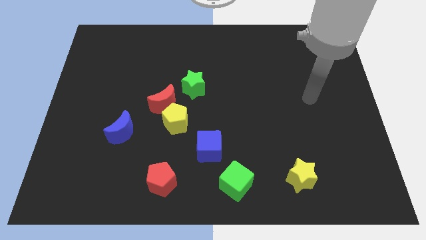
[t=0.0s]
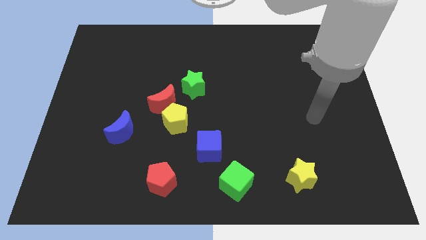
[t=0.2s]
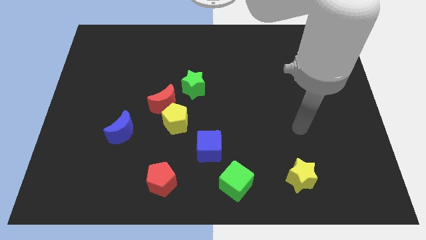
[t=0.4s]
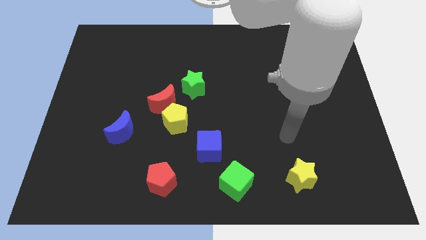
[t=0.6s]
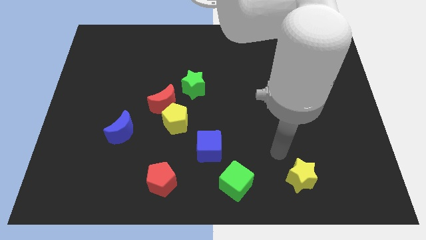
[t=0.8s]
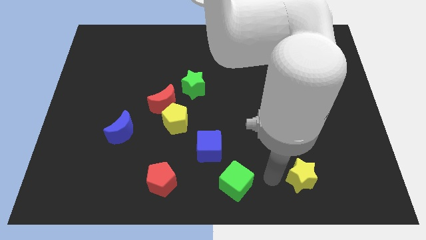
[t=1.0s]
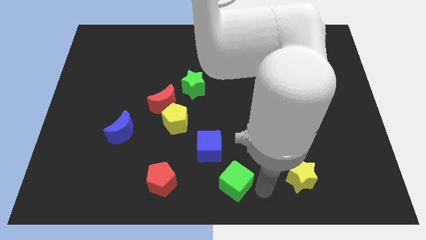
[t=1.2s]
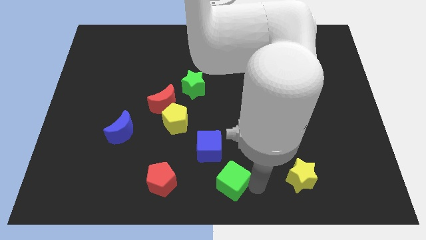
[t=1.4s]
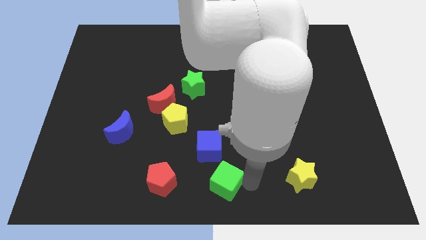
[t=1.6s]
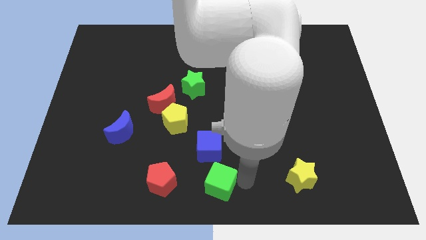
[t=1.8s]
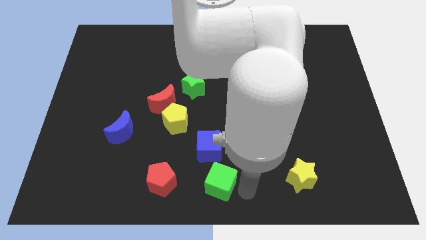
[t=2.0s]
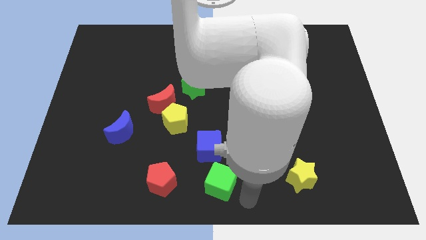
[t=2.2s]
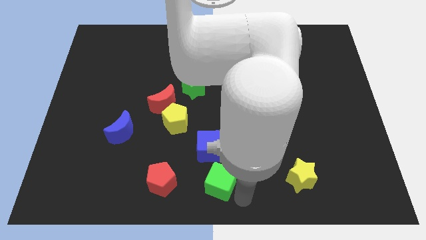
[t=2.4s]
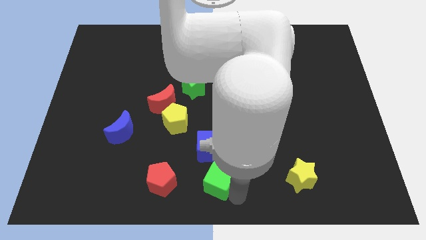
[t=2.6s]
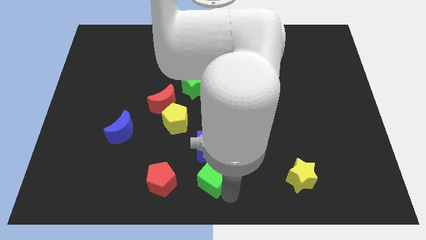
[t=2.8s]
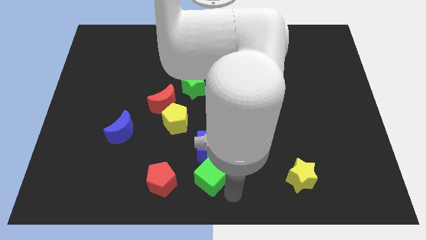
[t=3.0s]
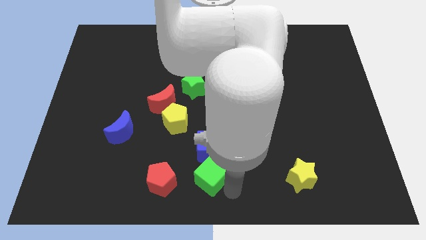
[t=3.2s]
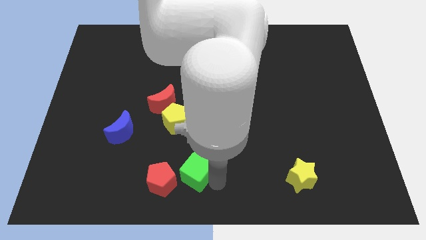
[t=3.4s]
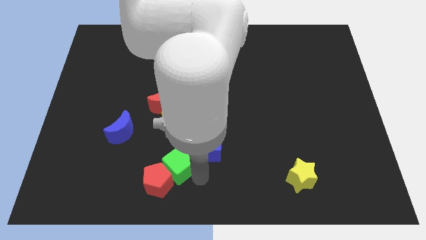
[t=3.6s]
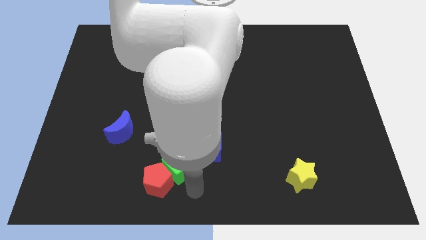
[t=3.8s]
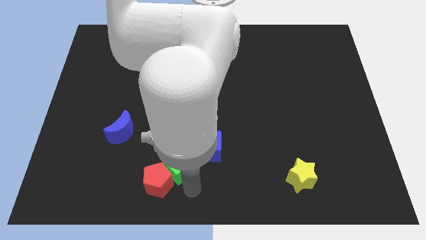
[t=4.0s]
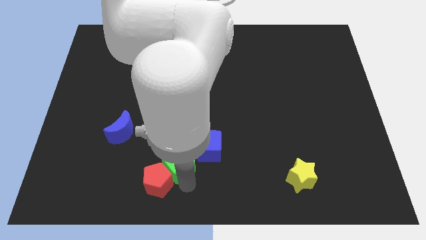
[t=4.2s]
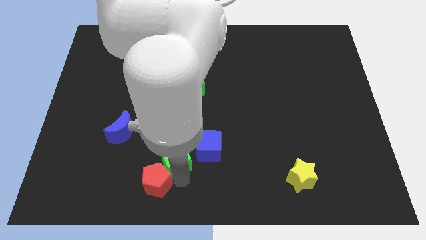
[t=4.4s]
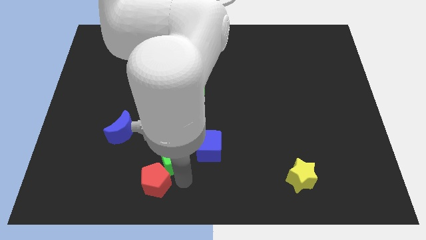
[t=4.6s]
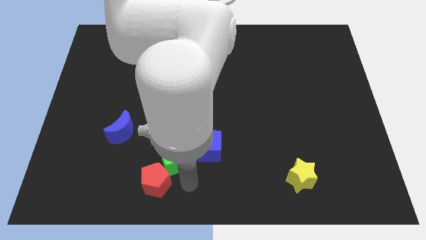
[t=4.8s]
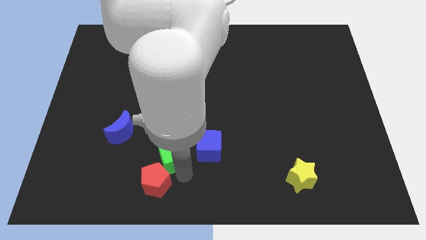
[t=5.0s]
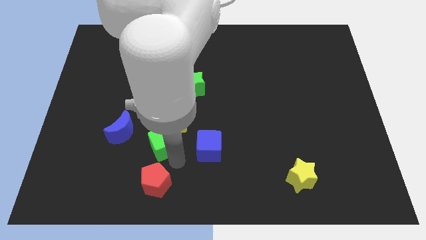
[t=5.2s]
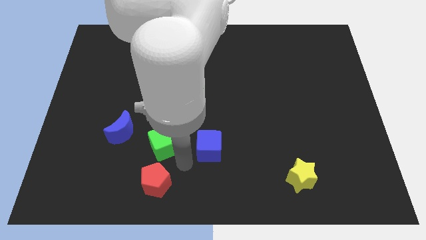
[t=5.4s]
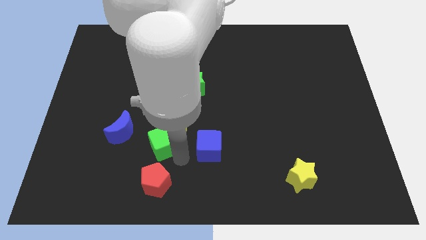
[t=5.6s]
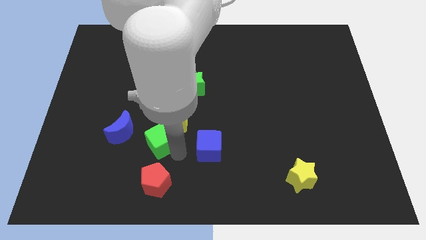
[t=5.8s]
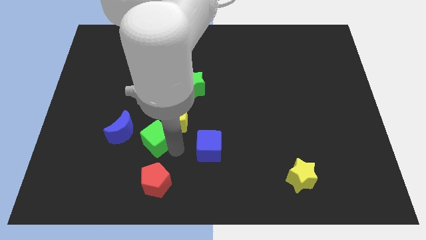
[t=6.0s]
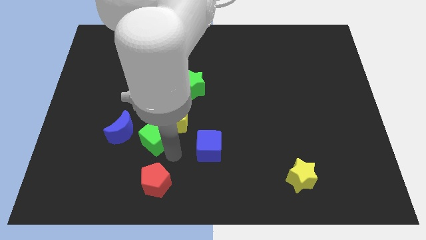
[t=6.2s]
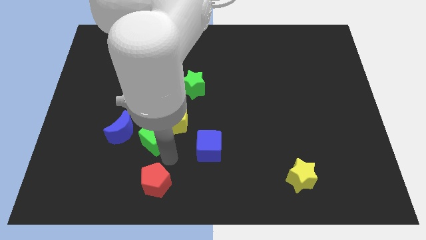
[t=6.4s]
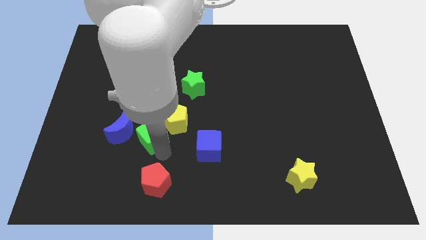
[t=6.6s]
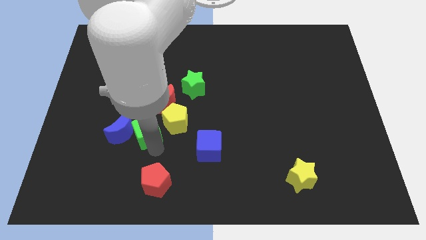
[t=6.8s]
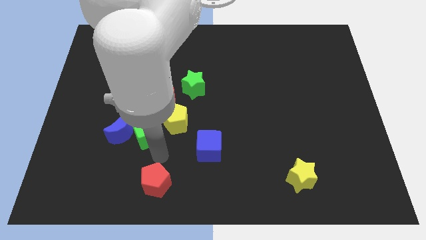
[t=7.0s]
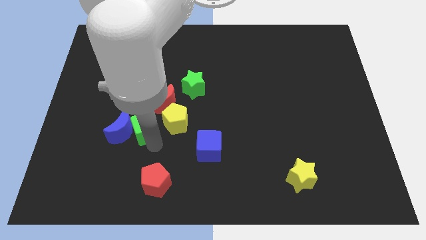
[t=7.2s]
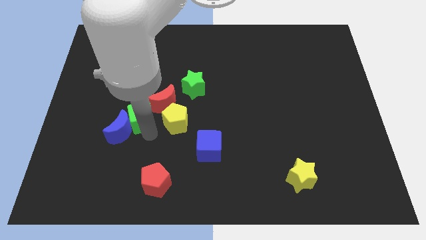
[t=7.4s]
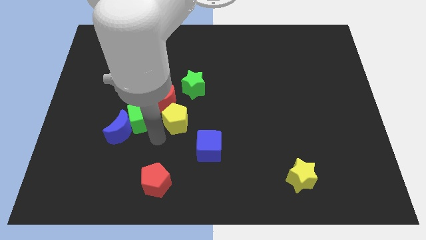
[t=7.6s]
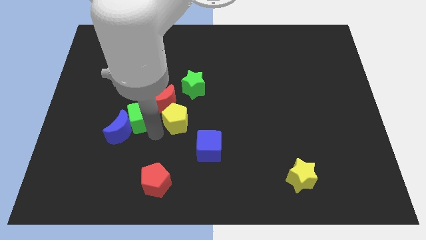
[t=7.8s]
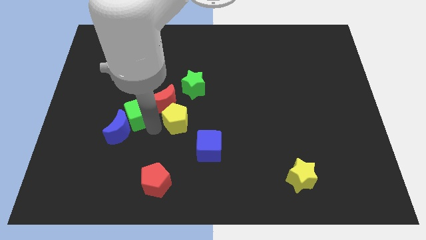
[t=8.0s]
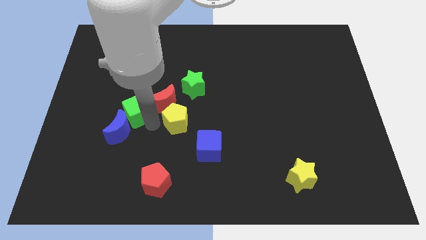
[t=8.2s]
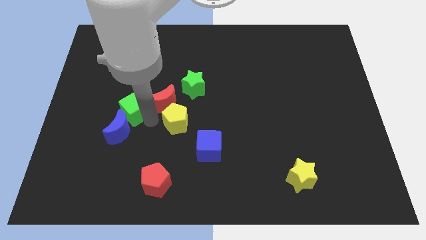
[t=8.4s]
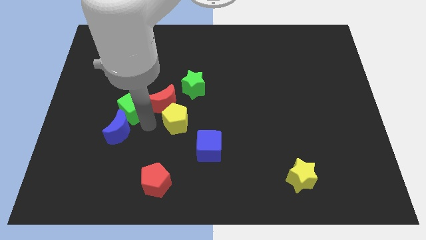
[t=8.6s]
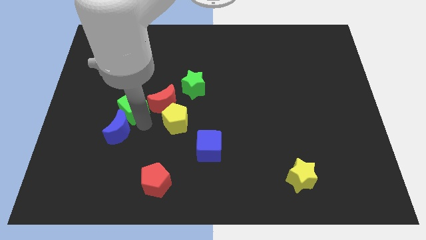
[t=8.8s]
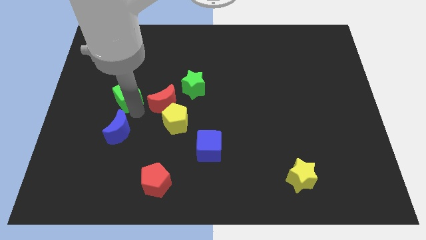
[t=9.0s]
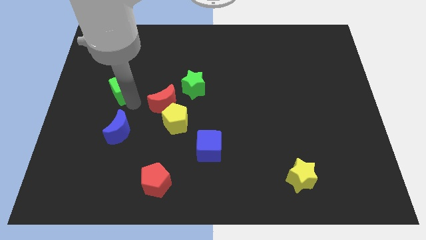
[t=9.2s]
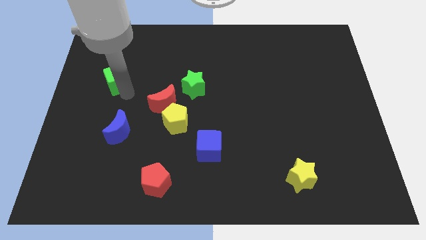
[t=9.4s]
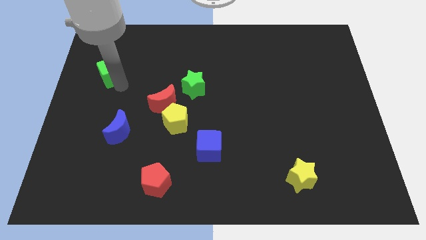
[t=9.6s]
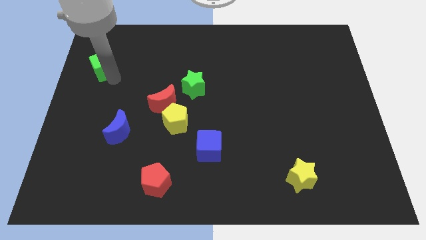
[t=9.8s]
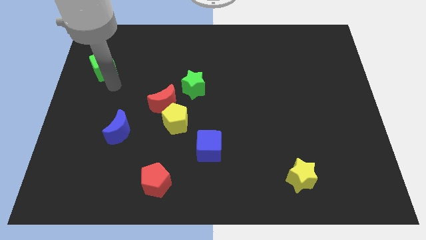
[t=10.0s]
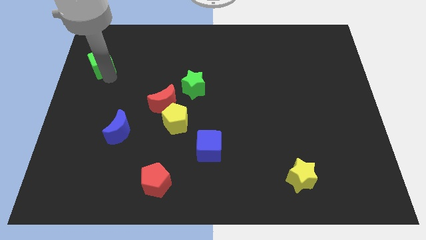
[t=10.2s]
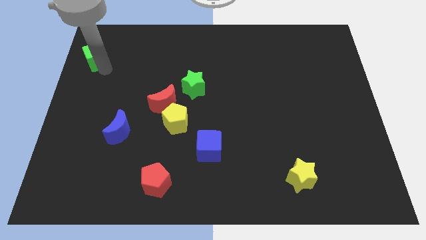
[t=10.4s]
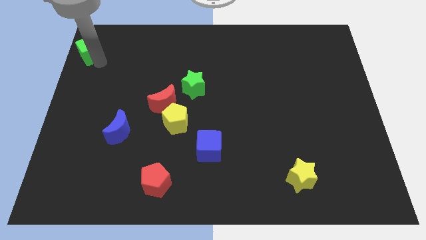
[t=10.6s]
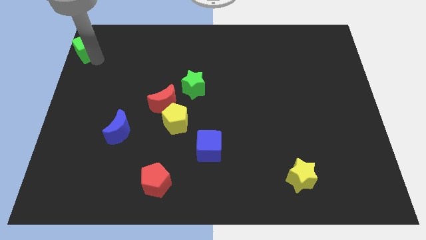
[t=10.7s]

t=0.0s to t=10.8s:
push the green cube to the top left corner

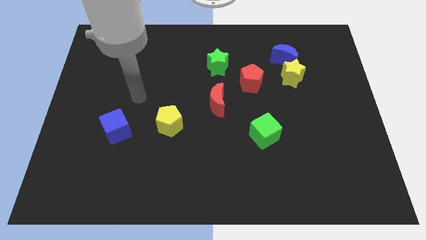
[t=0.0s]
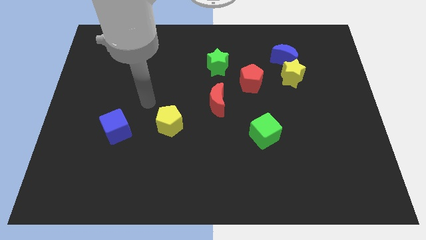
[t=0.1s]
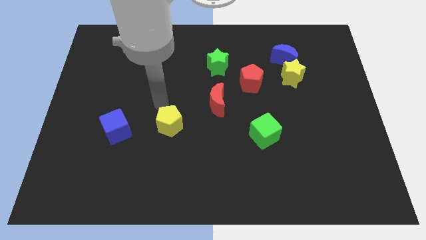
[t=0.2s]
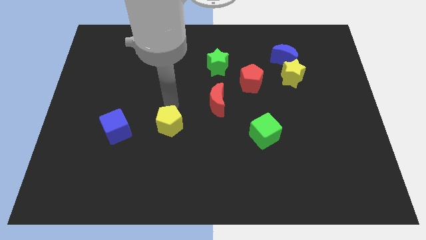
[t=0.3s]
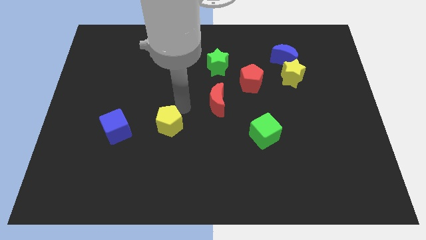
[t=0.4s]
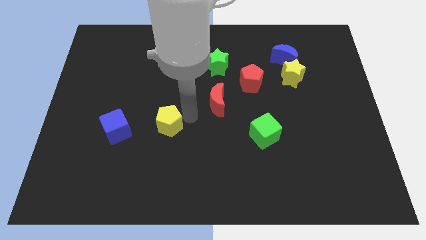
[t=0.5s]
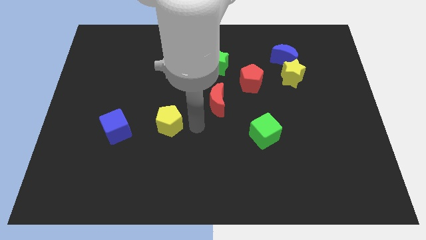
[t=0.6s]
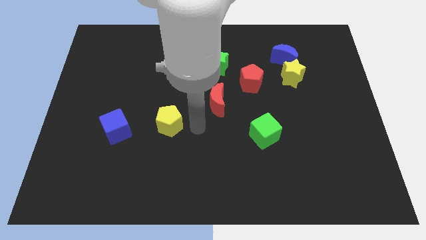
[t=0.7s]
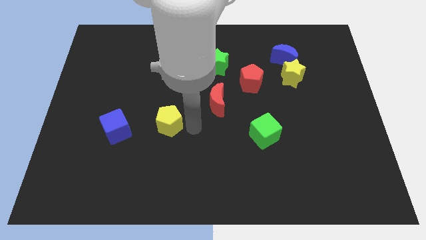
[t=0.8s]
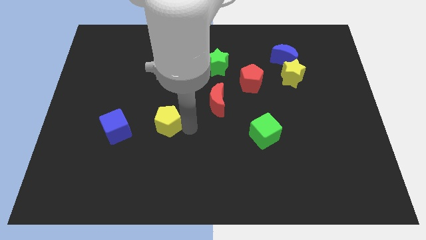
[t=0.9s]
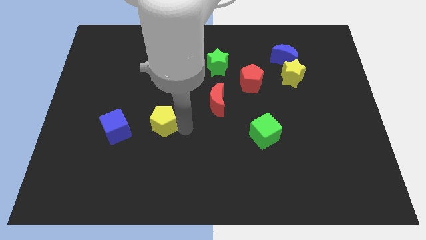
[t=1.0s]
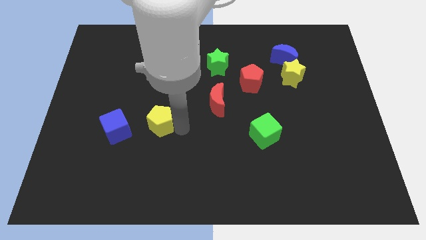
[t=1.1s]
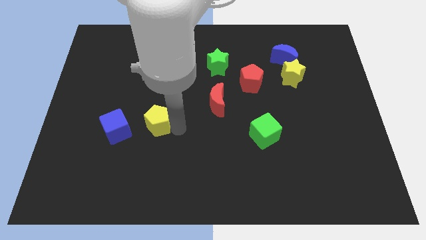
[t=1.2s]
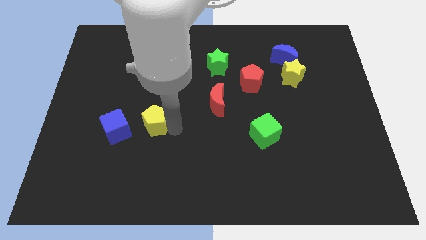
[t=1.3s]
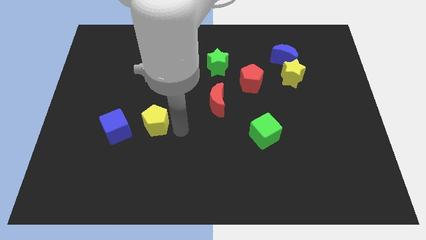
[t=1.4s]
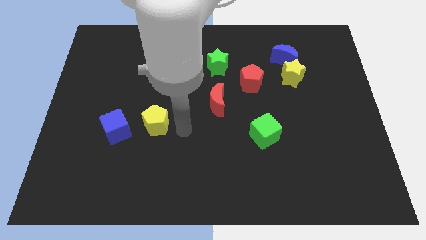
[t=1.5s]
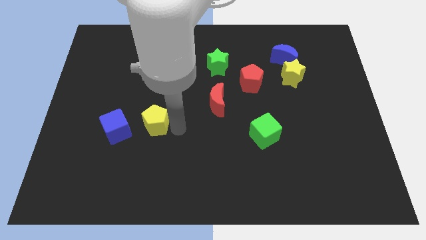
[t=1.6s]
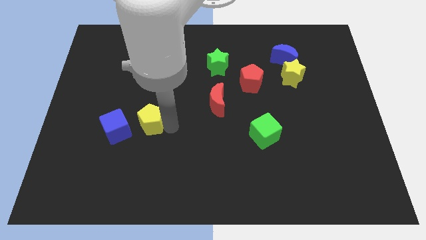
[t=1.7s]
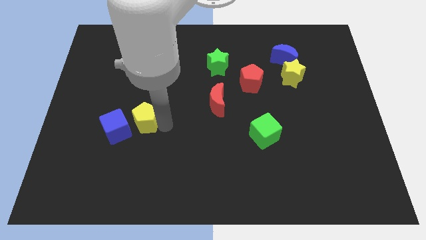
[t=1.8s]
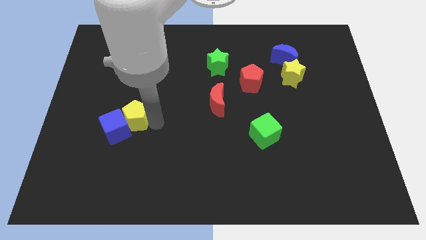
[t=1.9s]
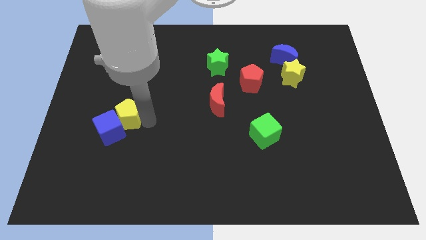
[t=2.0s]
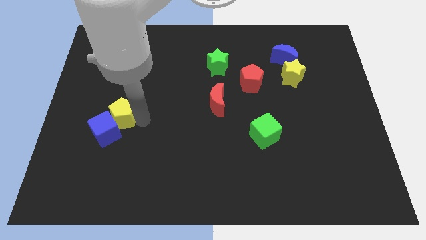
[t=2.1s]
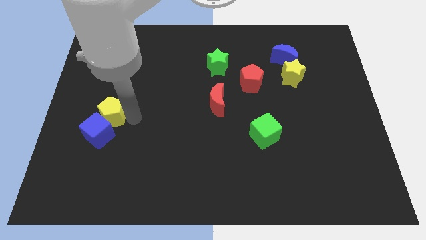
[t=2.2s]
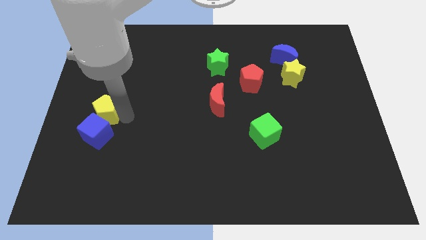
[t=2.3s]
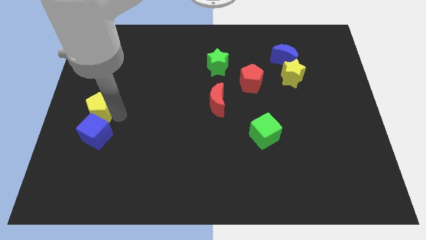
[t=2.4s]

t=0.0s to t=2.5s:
move the yellow pentagon to the left side

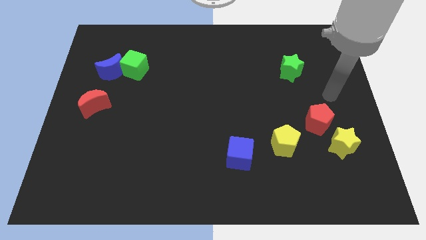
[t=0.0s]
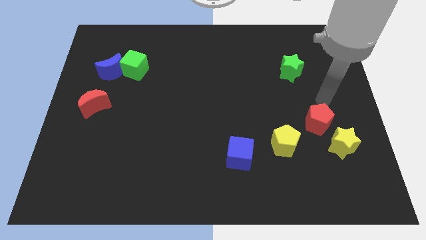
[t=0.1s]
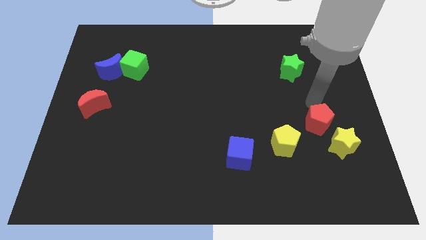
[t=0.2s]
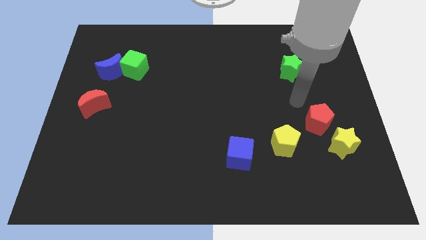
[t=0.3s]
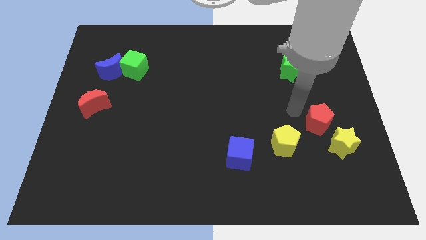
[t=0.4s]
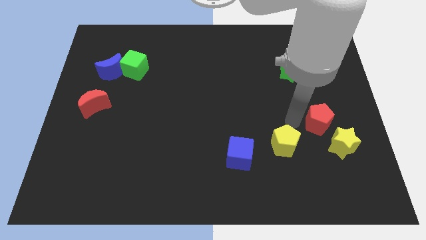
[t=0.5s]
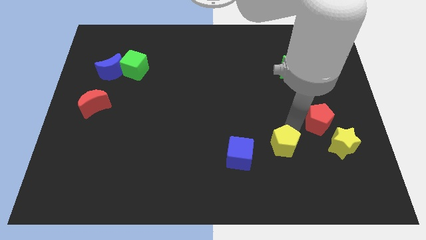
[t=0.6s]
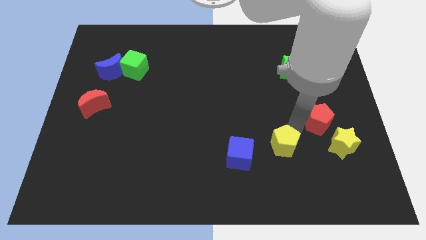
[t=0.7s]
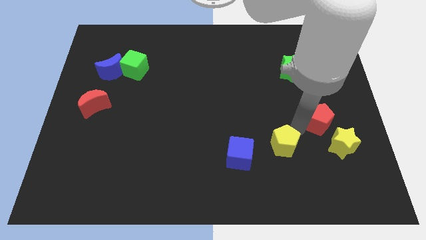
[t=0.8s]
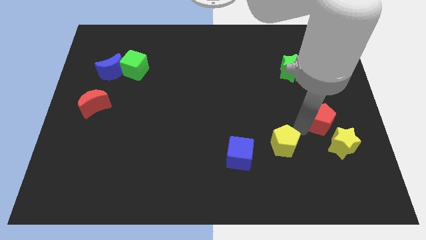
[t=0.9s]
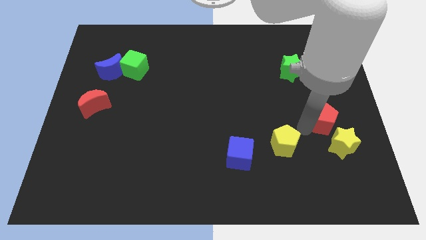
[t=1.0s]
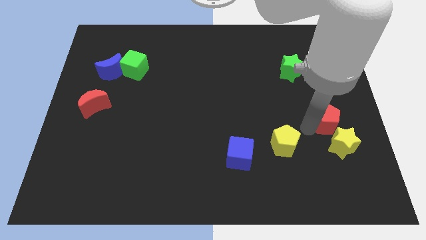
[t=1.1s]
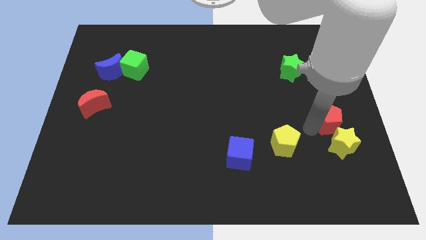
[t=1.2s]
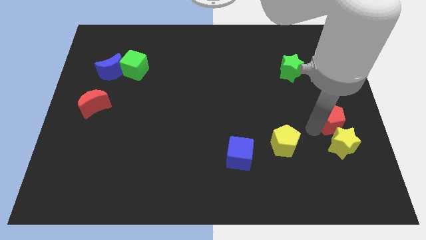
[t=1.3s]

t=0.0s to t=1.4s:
push the red pentagon to the right side of the board
